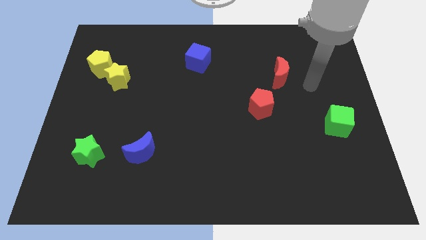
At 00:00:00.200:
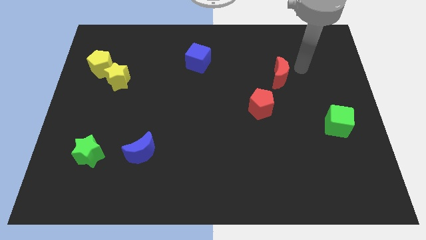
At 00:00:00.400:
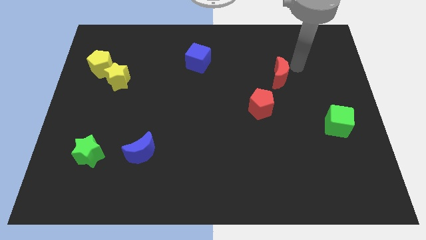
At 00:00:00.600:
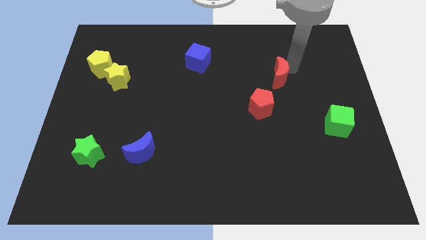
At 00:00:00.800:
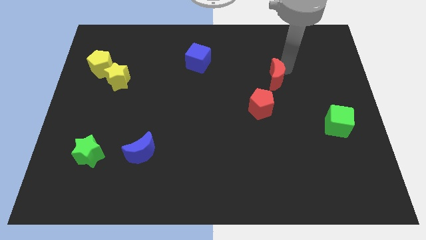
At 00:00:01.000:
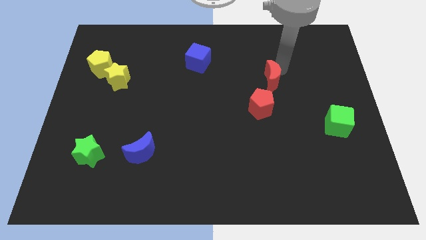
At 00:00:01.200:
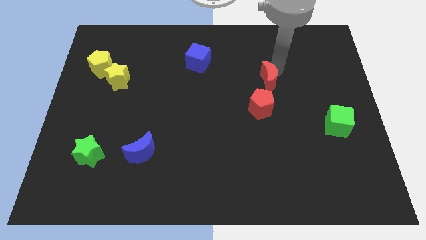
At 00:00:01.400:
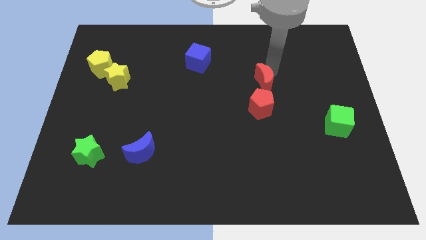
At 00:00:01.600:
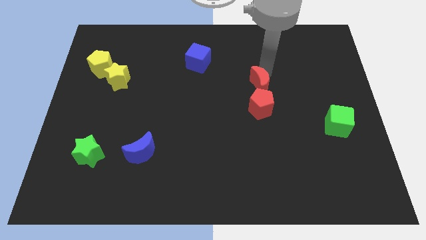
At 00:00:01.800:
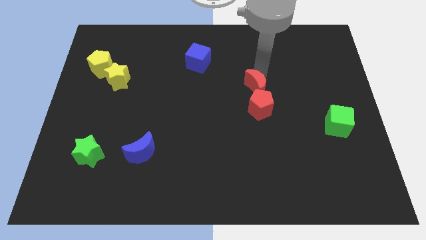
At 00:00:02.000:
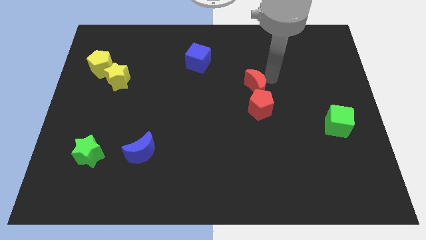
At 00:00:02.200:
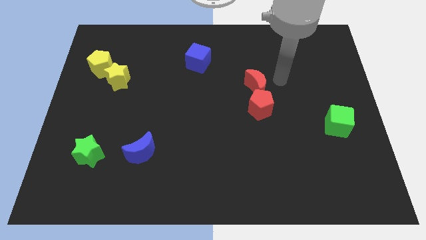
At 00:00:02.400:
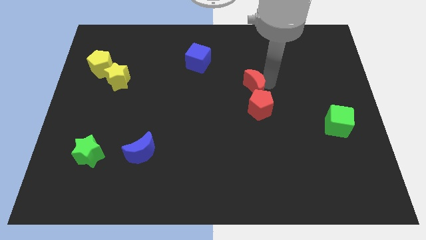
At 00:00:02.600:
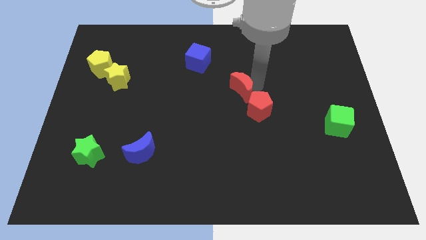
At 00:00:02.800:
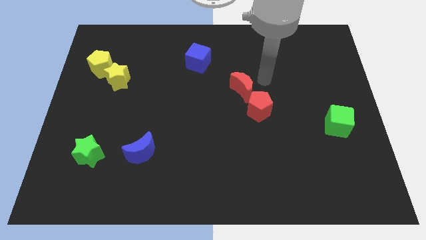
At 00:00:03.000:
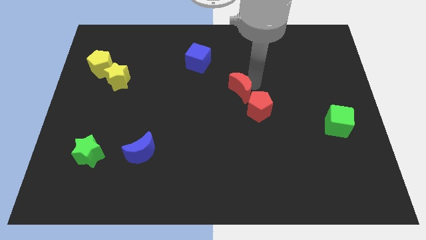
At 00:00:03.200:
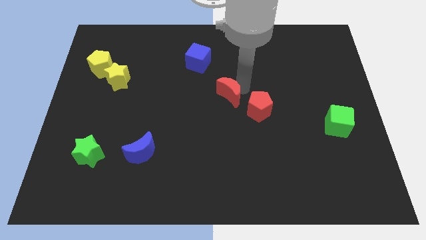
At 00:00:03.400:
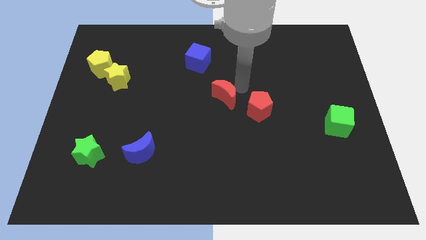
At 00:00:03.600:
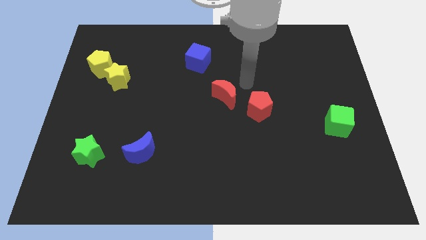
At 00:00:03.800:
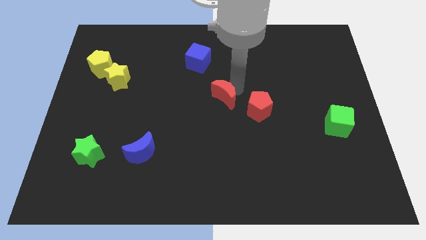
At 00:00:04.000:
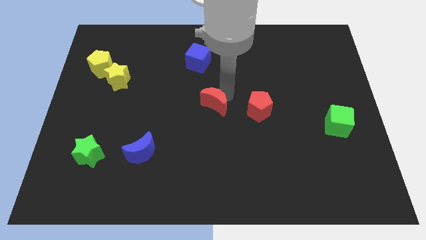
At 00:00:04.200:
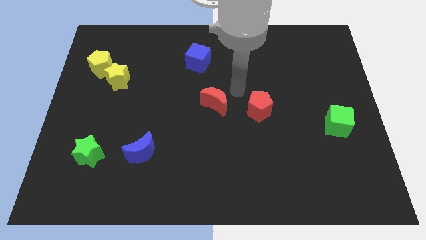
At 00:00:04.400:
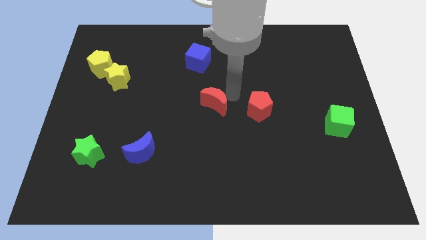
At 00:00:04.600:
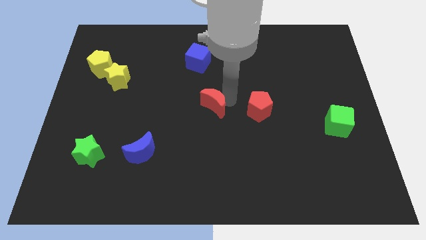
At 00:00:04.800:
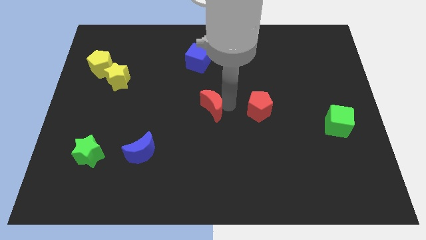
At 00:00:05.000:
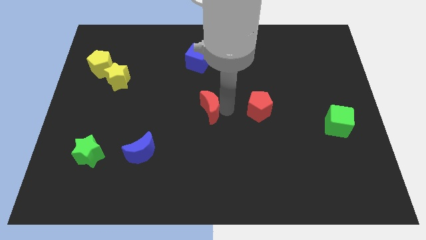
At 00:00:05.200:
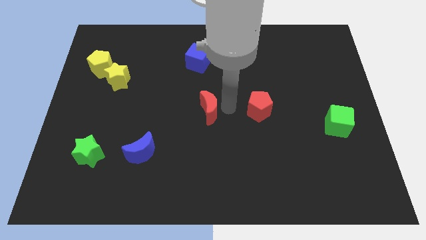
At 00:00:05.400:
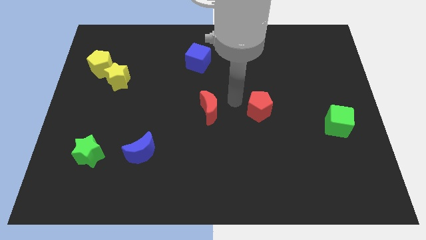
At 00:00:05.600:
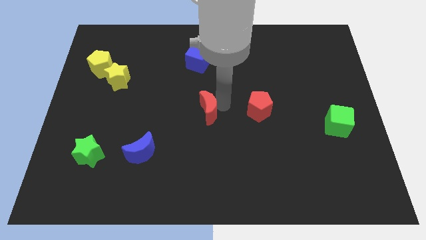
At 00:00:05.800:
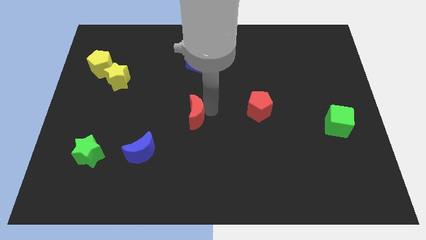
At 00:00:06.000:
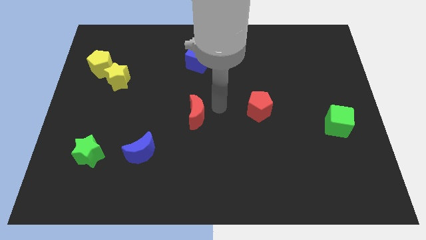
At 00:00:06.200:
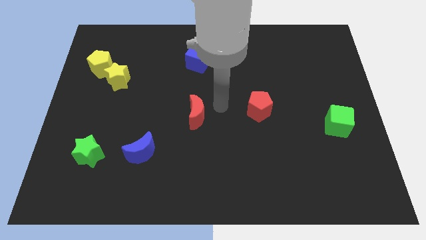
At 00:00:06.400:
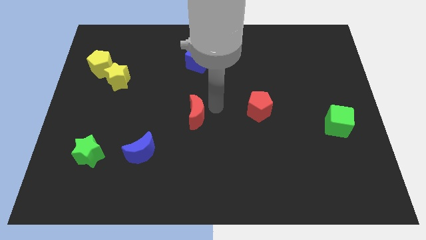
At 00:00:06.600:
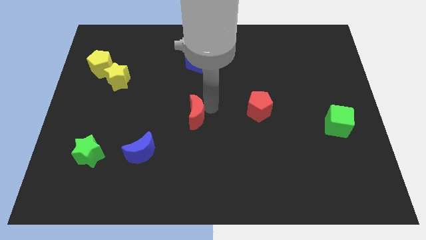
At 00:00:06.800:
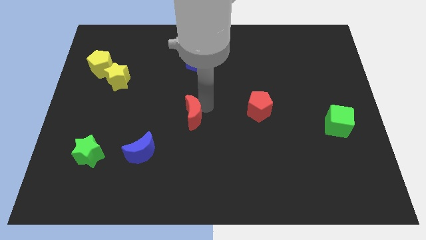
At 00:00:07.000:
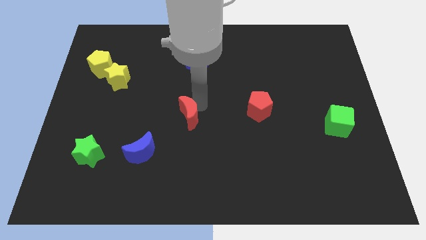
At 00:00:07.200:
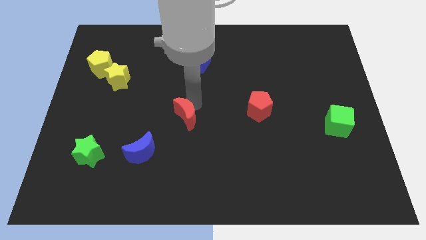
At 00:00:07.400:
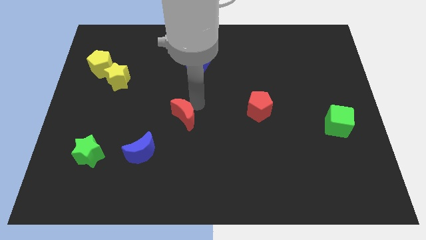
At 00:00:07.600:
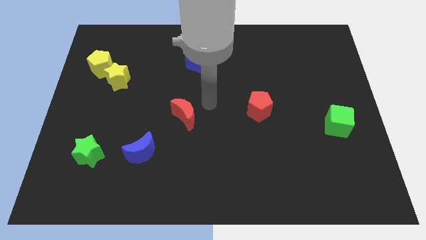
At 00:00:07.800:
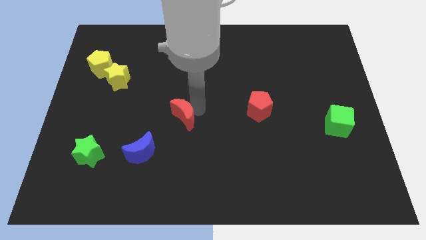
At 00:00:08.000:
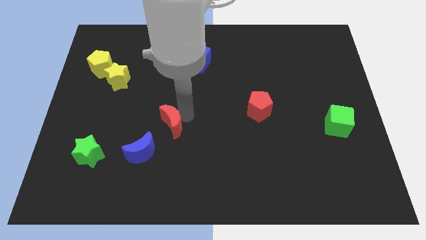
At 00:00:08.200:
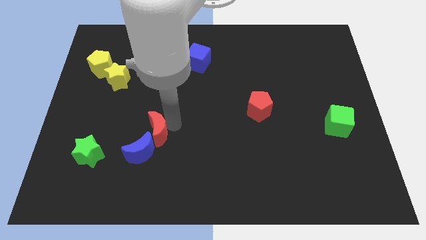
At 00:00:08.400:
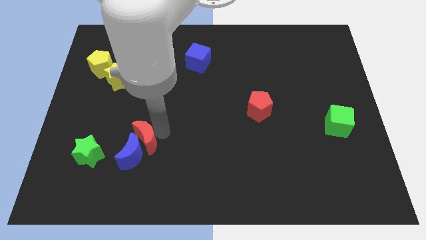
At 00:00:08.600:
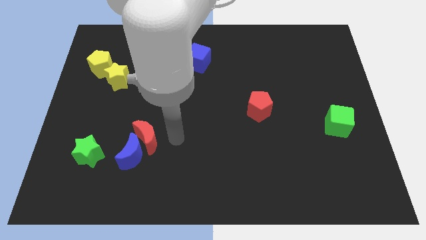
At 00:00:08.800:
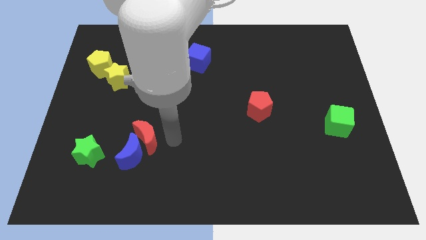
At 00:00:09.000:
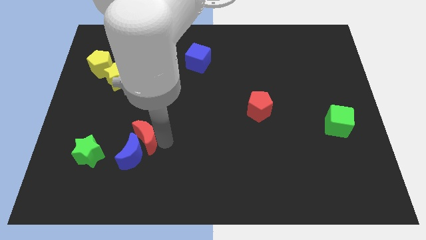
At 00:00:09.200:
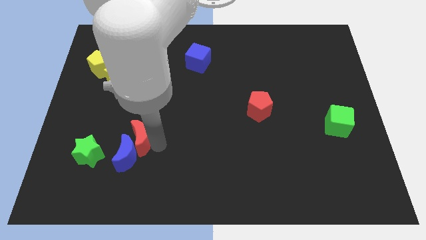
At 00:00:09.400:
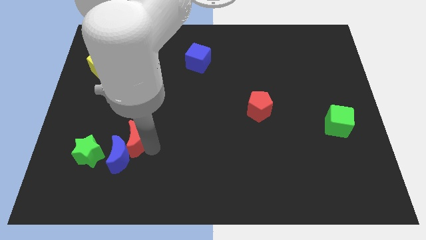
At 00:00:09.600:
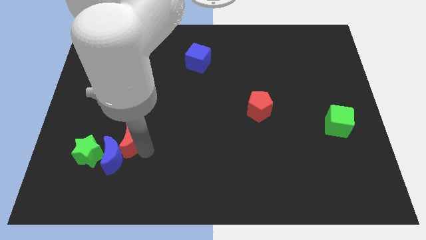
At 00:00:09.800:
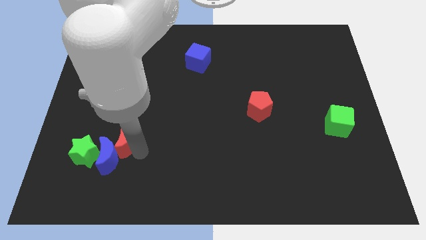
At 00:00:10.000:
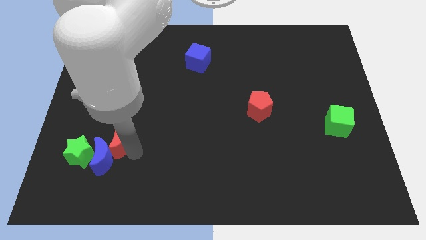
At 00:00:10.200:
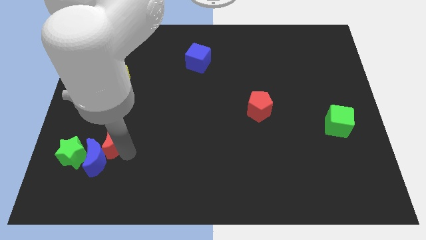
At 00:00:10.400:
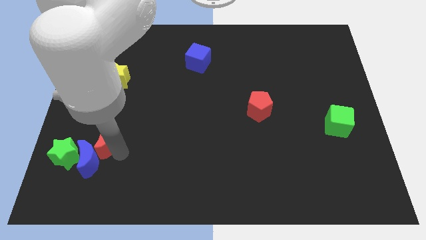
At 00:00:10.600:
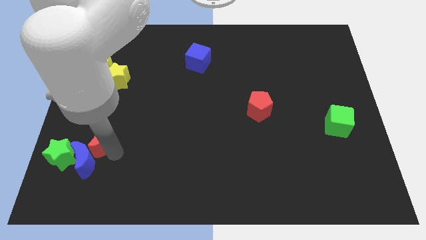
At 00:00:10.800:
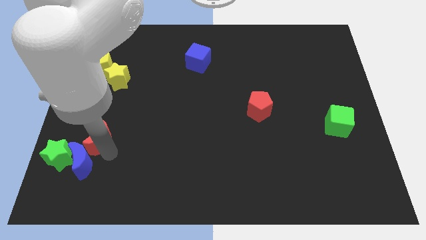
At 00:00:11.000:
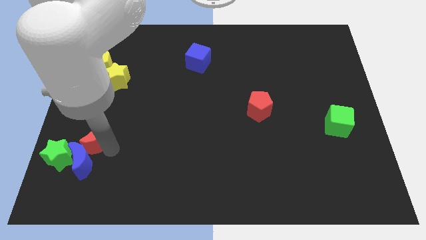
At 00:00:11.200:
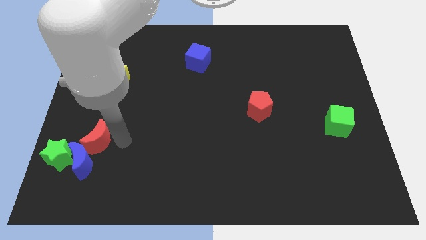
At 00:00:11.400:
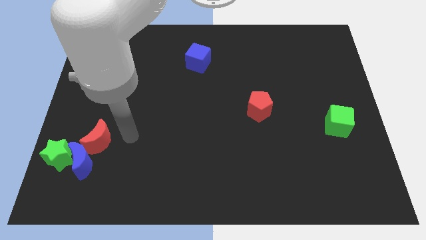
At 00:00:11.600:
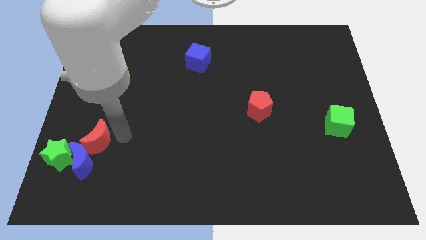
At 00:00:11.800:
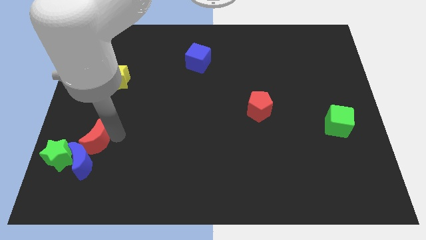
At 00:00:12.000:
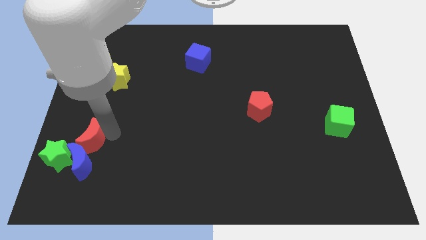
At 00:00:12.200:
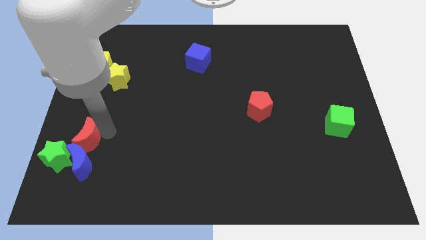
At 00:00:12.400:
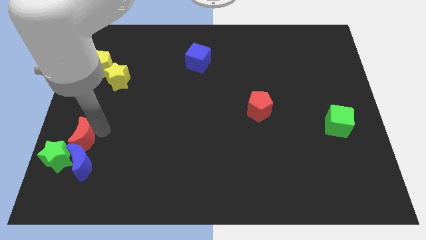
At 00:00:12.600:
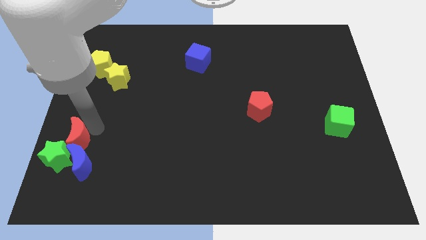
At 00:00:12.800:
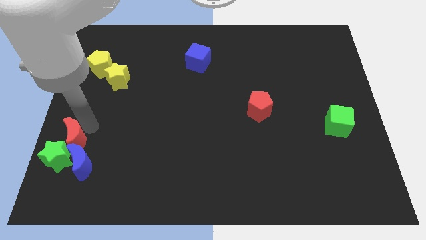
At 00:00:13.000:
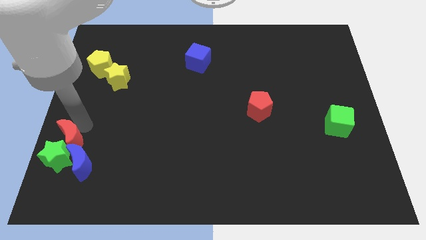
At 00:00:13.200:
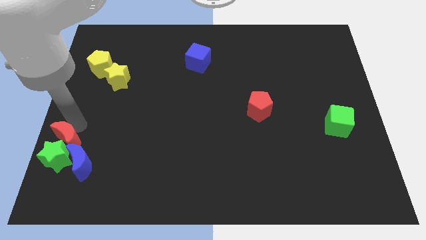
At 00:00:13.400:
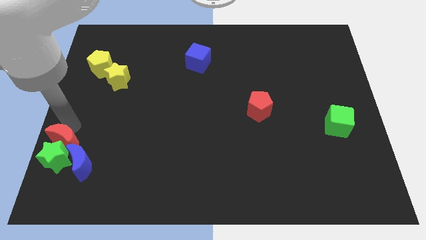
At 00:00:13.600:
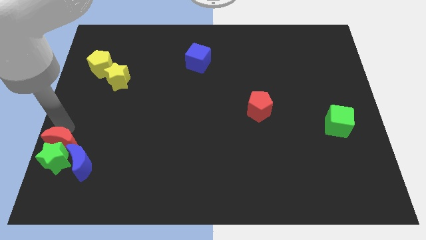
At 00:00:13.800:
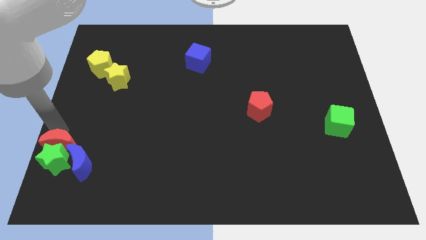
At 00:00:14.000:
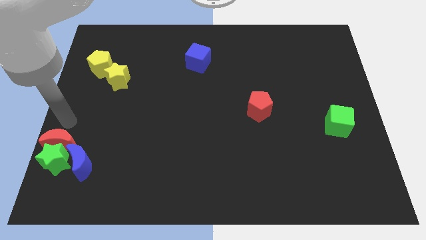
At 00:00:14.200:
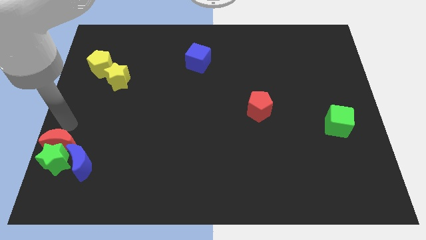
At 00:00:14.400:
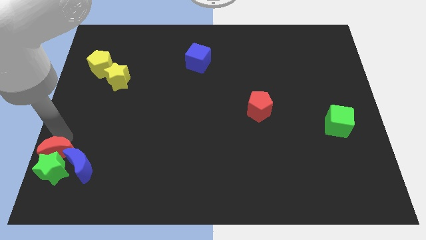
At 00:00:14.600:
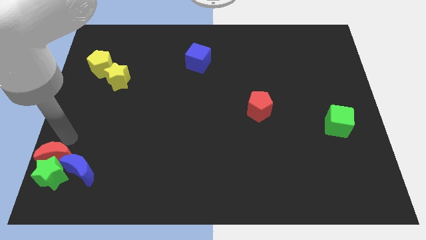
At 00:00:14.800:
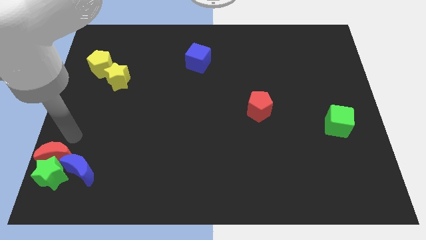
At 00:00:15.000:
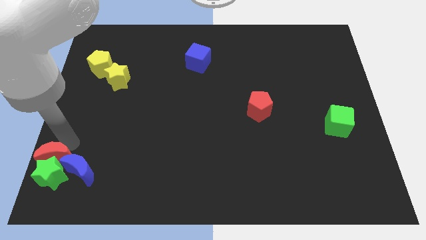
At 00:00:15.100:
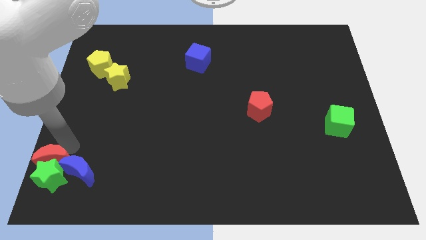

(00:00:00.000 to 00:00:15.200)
slide the red moon to the bottom left
